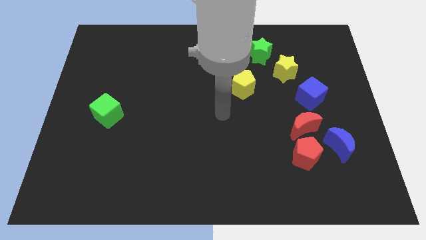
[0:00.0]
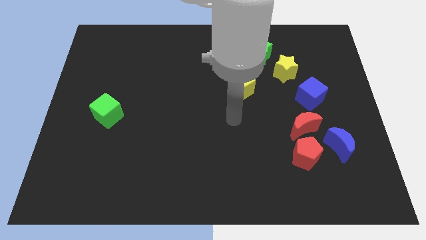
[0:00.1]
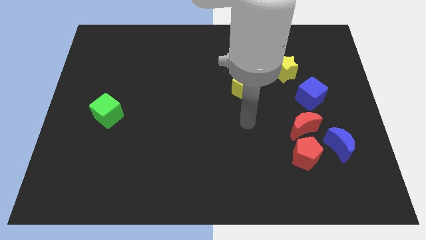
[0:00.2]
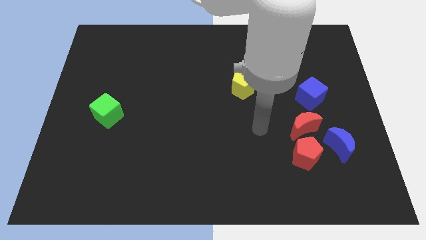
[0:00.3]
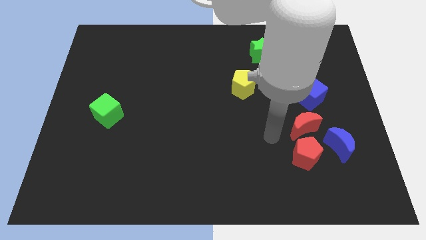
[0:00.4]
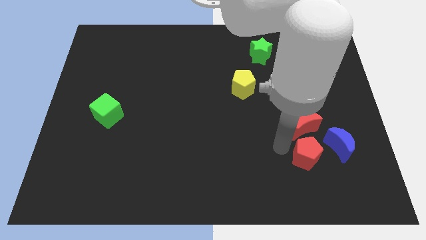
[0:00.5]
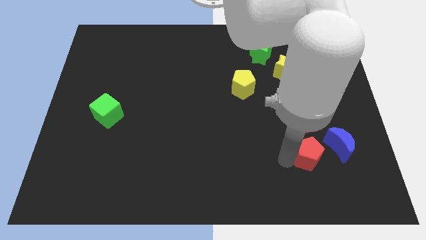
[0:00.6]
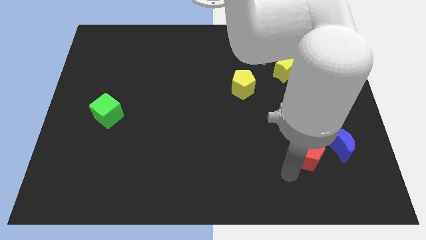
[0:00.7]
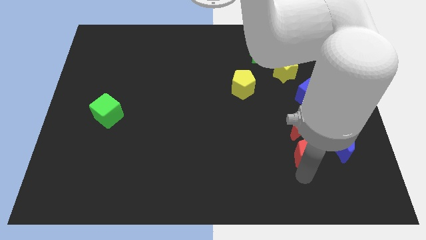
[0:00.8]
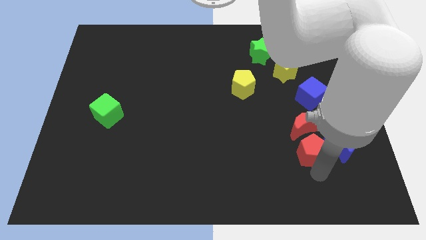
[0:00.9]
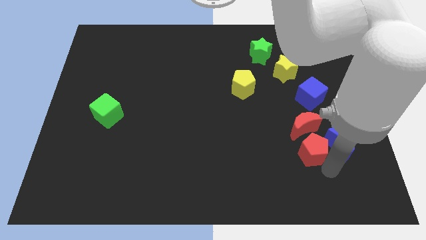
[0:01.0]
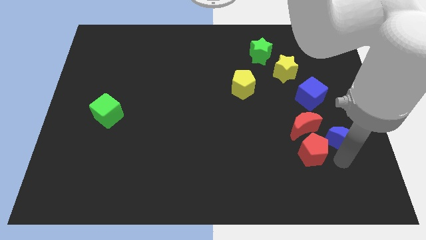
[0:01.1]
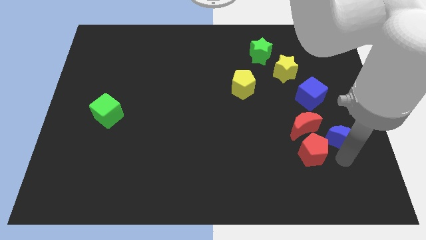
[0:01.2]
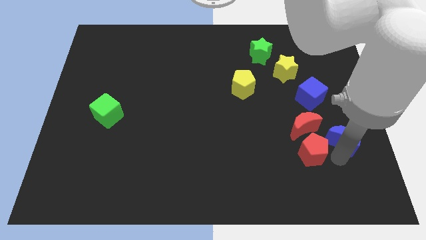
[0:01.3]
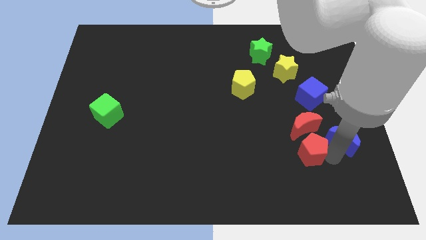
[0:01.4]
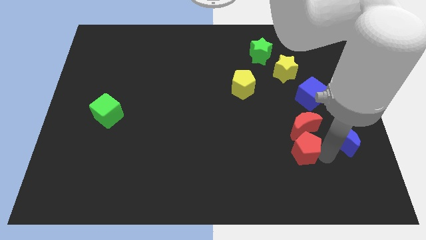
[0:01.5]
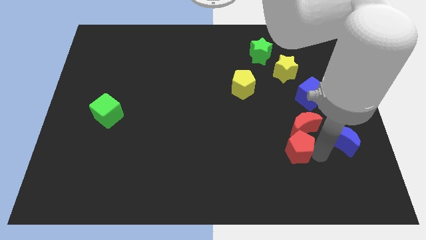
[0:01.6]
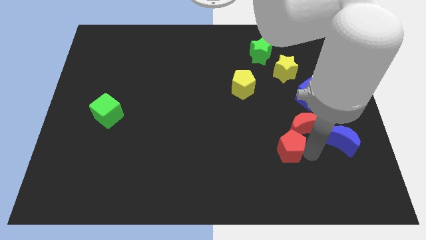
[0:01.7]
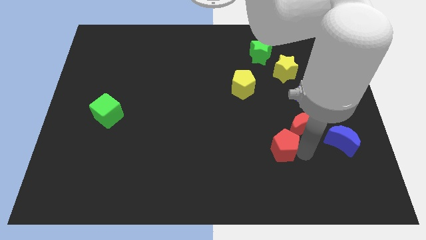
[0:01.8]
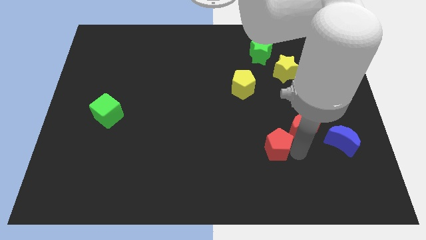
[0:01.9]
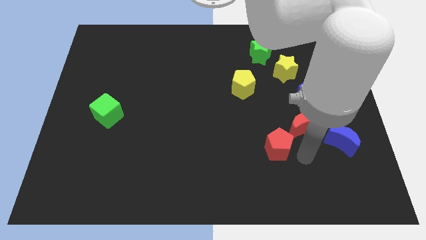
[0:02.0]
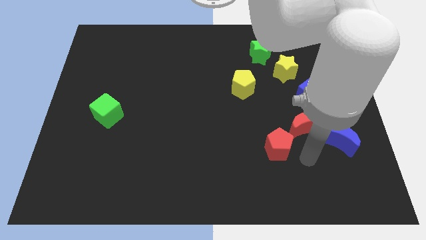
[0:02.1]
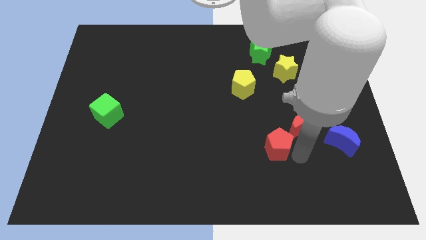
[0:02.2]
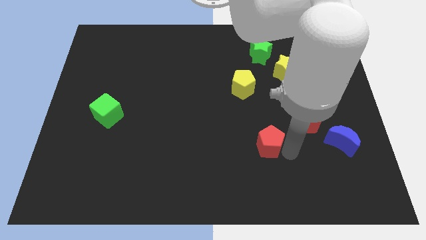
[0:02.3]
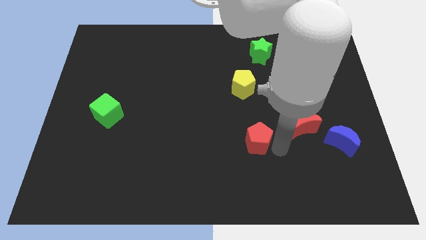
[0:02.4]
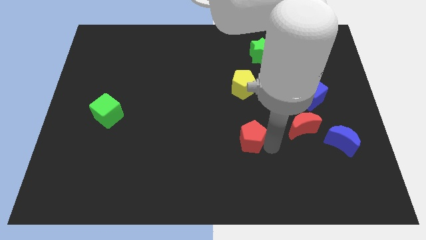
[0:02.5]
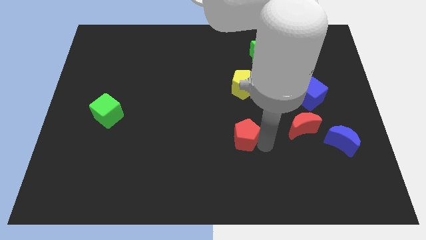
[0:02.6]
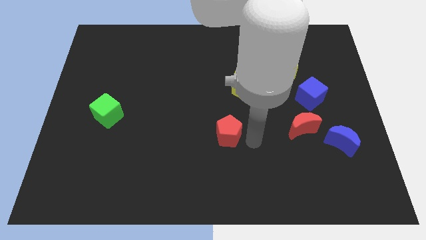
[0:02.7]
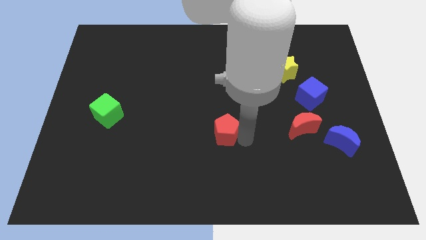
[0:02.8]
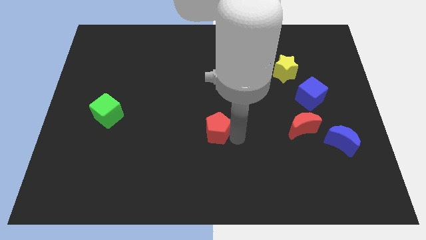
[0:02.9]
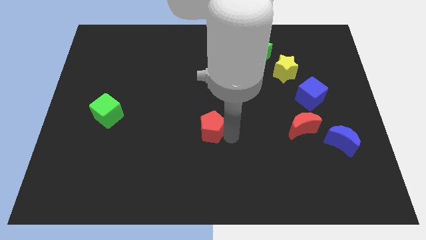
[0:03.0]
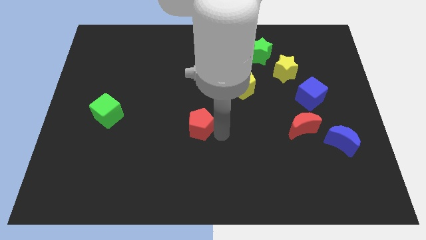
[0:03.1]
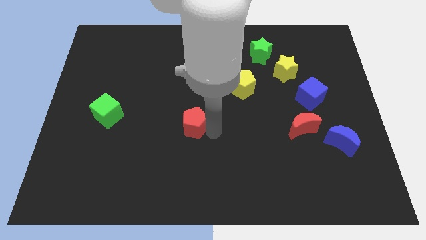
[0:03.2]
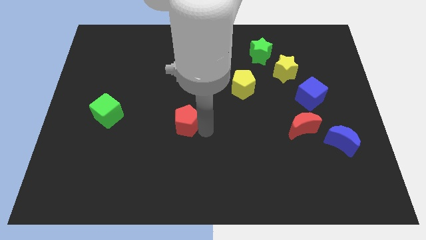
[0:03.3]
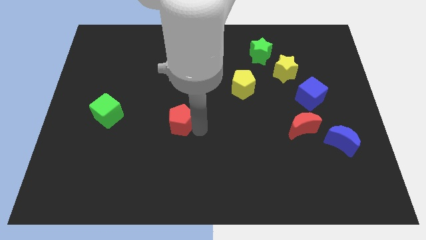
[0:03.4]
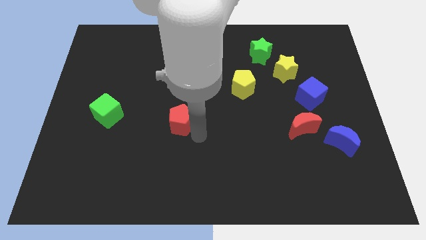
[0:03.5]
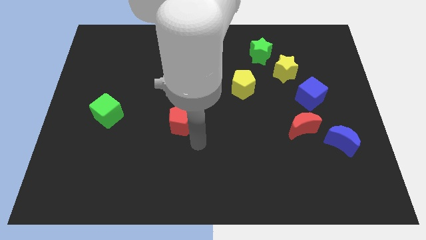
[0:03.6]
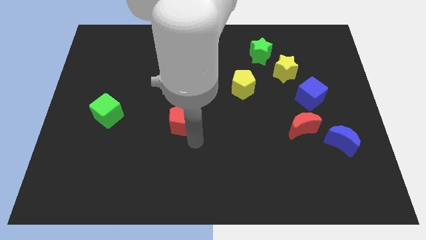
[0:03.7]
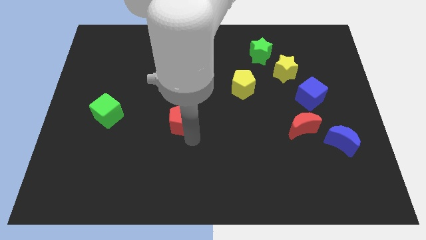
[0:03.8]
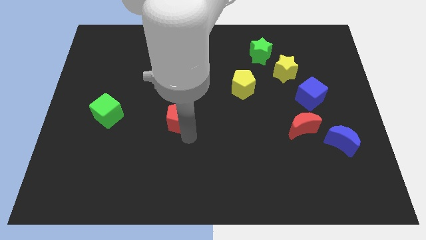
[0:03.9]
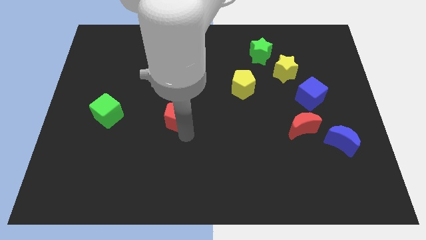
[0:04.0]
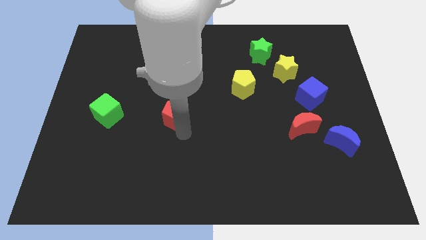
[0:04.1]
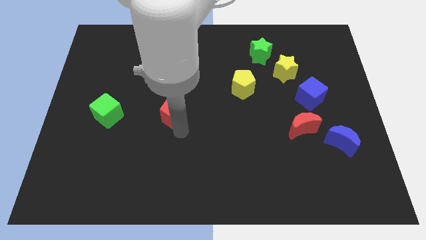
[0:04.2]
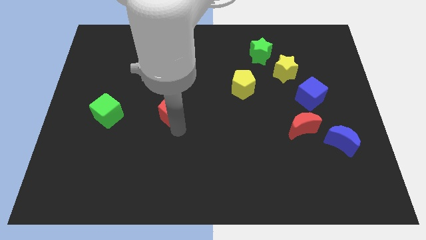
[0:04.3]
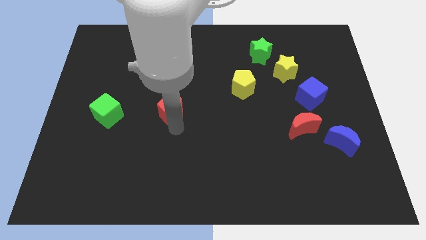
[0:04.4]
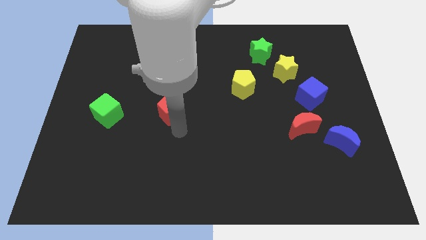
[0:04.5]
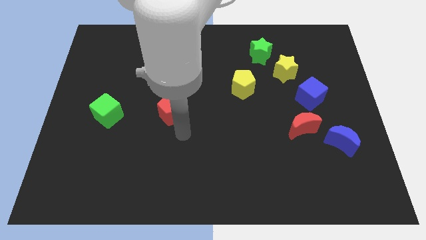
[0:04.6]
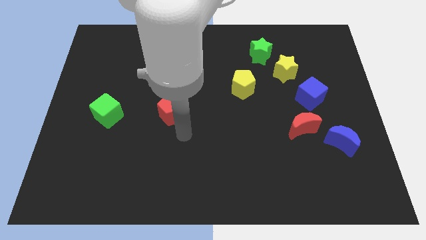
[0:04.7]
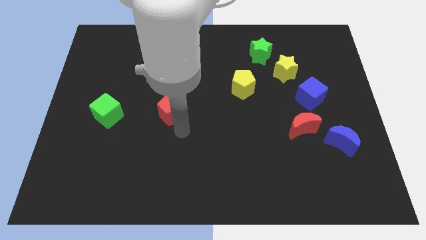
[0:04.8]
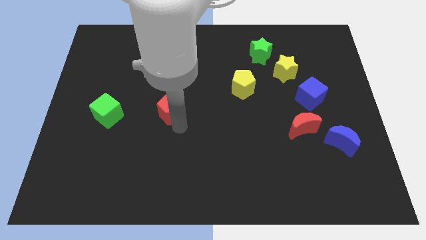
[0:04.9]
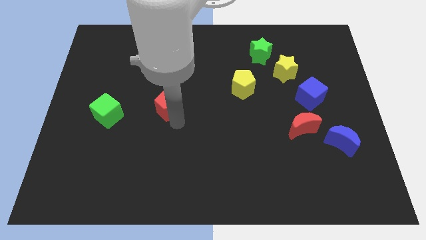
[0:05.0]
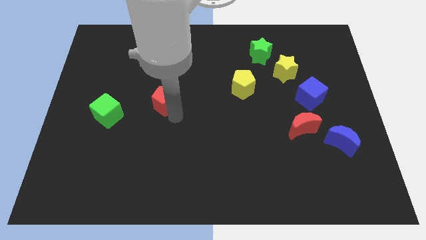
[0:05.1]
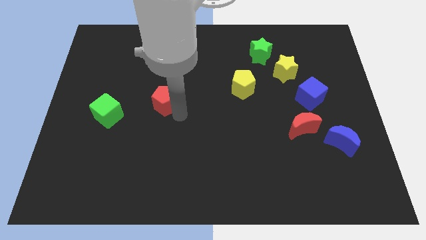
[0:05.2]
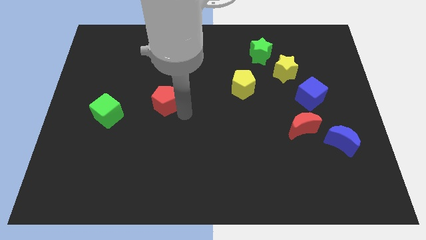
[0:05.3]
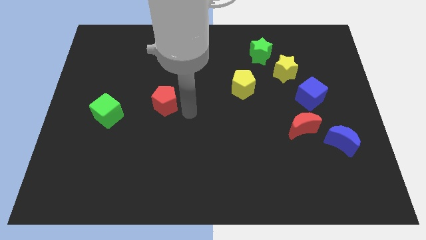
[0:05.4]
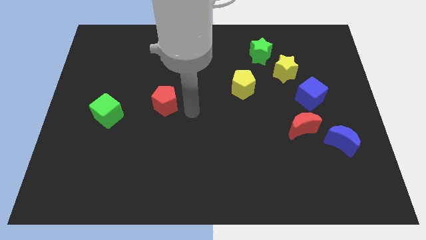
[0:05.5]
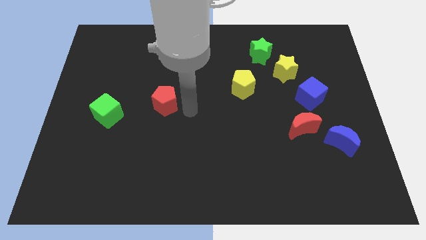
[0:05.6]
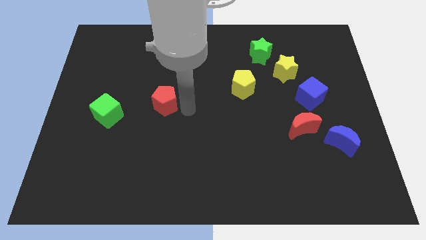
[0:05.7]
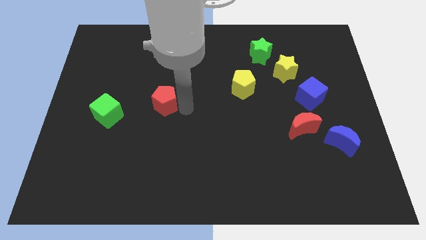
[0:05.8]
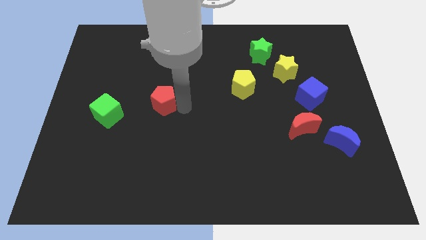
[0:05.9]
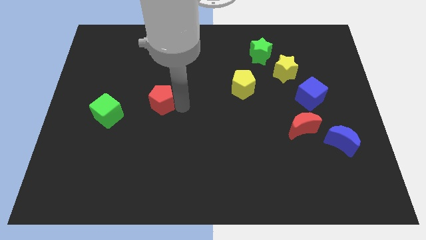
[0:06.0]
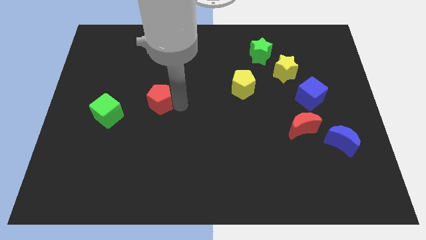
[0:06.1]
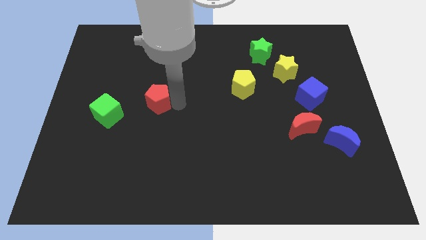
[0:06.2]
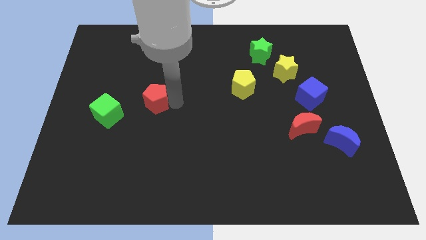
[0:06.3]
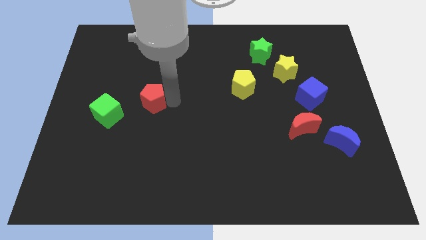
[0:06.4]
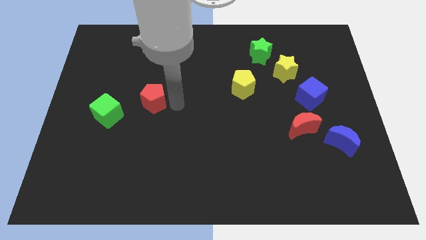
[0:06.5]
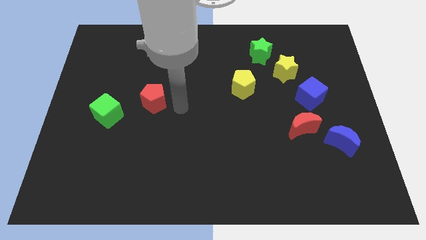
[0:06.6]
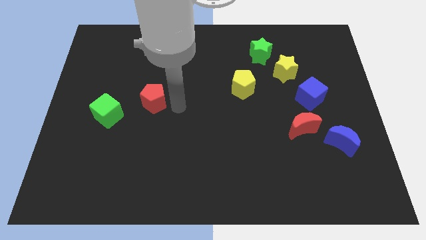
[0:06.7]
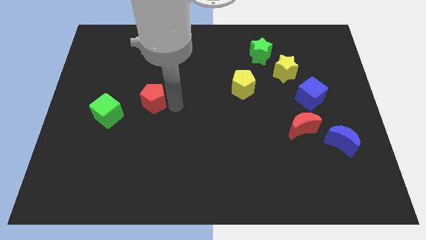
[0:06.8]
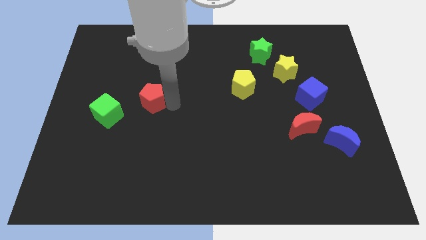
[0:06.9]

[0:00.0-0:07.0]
push the red pentagon to the top right of the green cube
